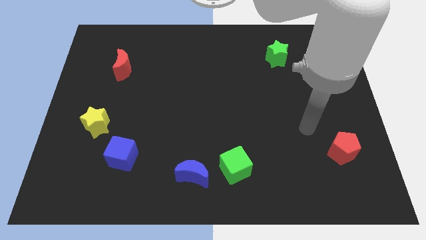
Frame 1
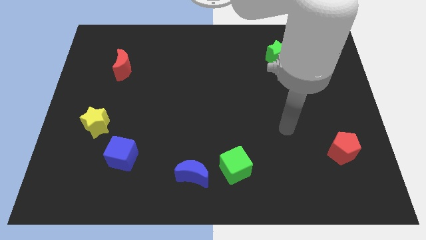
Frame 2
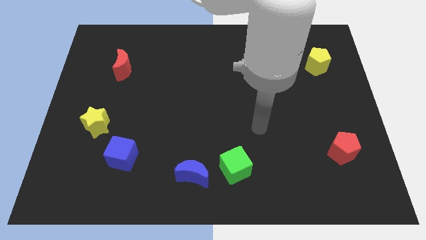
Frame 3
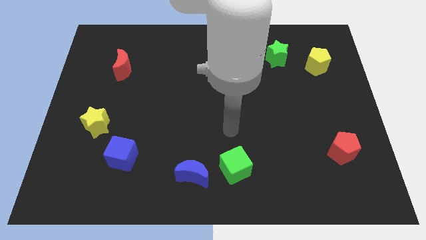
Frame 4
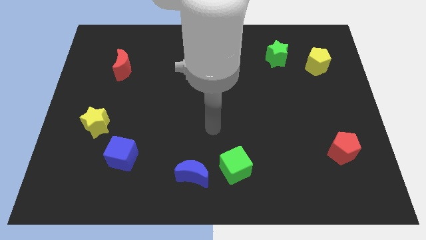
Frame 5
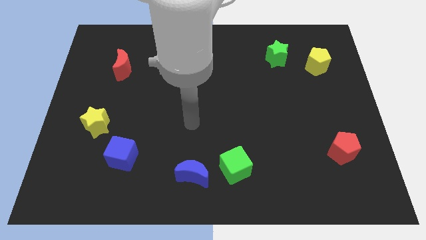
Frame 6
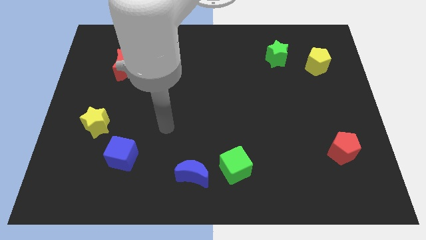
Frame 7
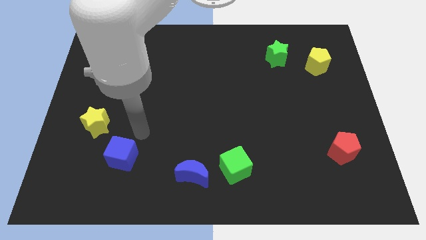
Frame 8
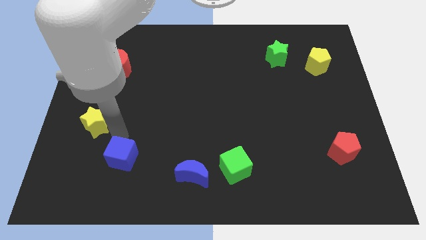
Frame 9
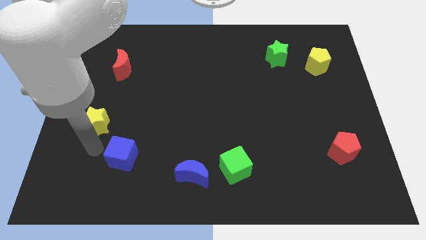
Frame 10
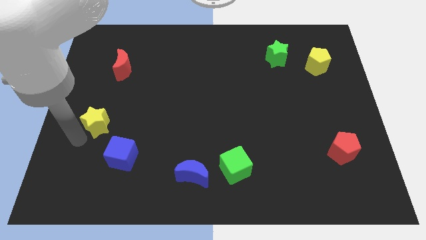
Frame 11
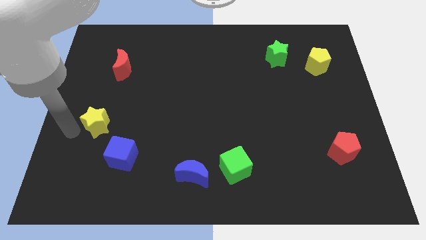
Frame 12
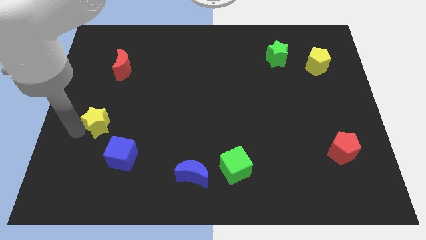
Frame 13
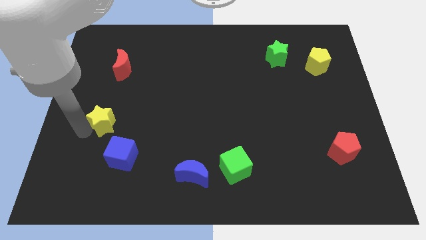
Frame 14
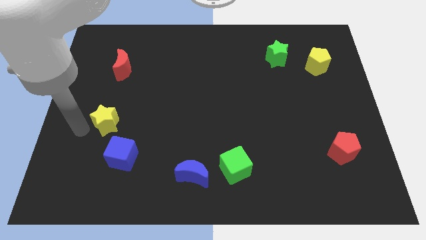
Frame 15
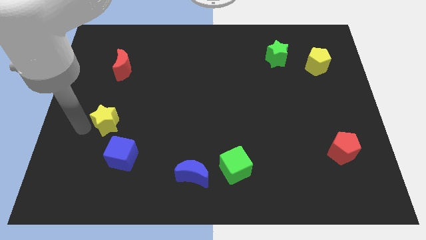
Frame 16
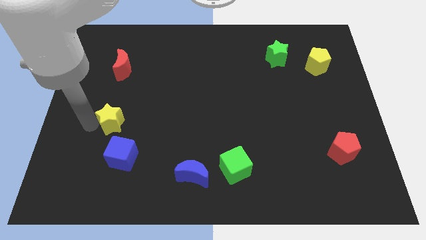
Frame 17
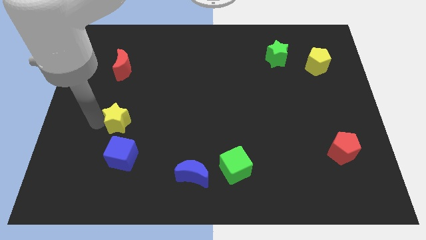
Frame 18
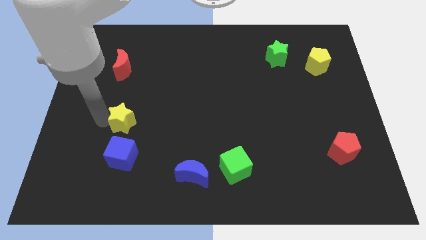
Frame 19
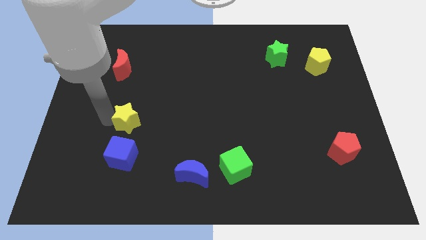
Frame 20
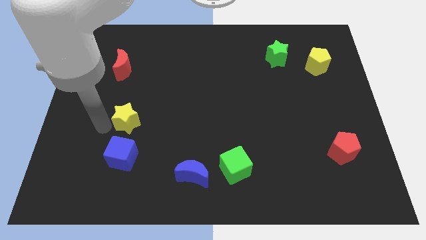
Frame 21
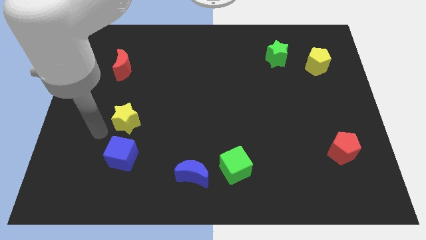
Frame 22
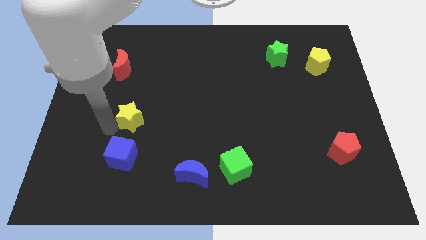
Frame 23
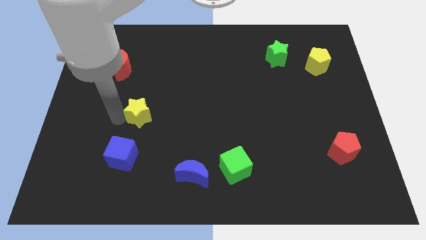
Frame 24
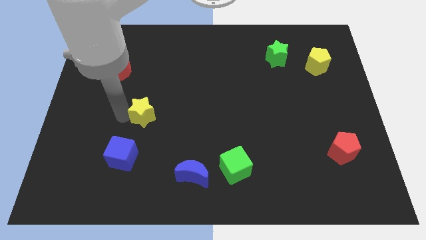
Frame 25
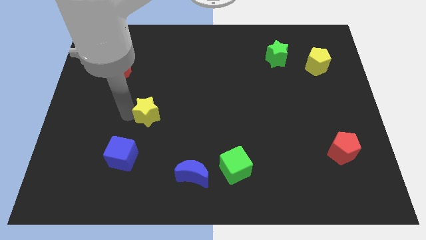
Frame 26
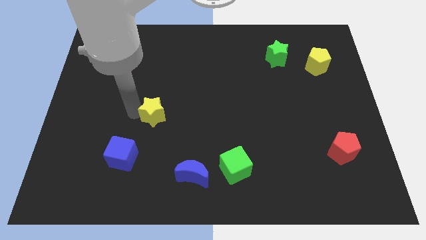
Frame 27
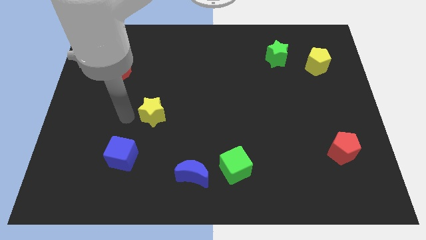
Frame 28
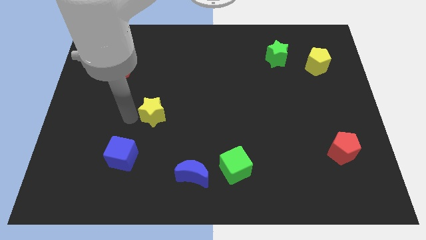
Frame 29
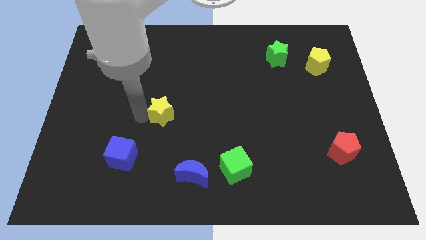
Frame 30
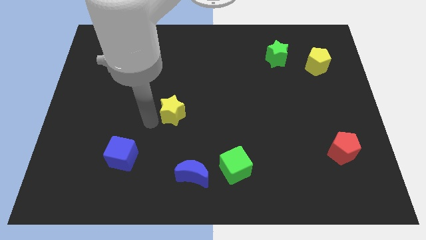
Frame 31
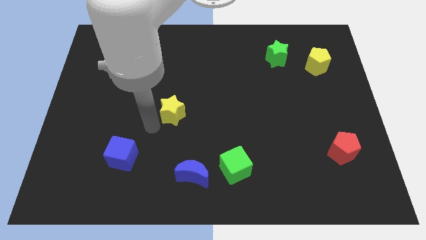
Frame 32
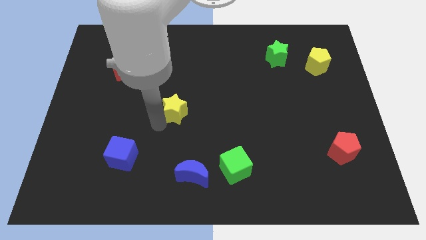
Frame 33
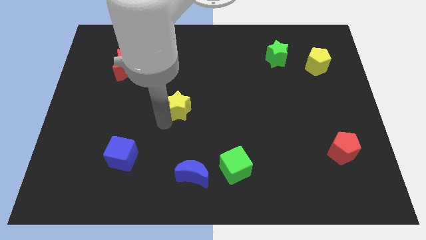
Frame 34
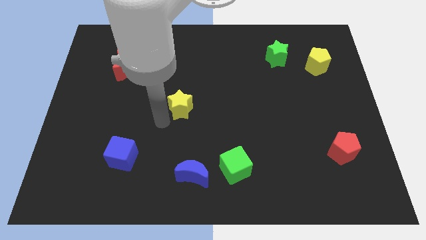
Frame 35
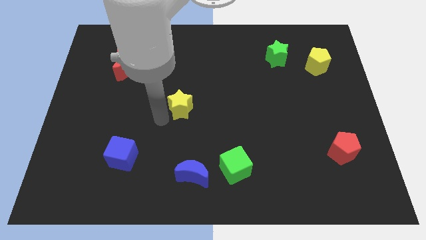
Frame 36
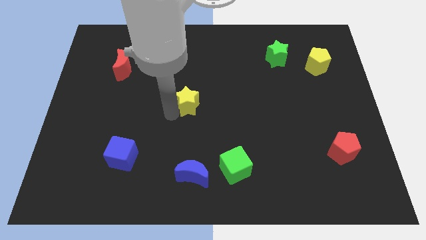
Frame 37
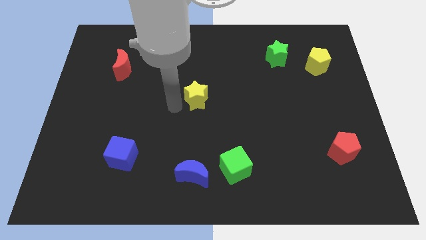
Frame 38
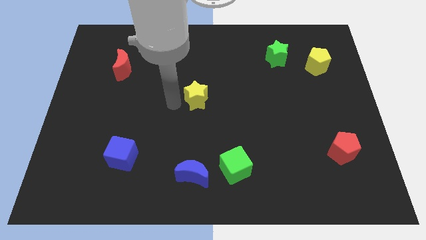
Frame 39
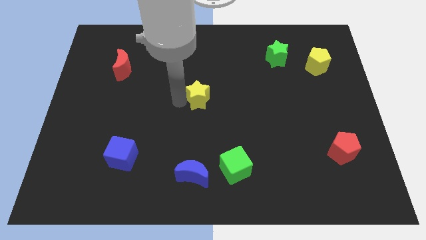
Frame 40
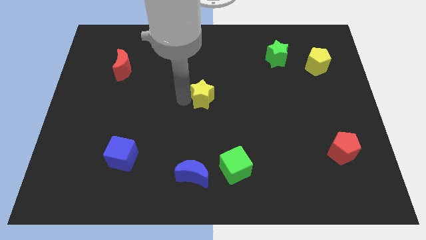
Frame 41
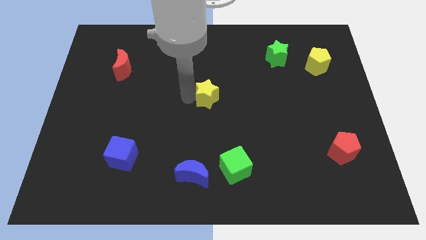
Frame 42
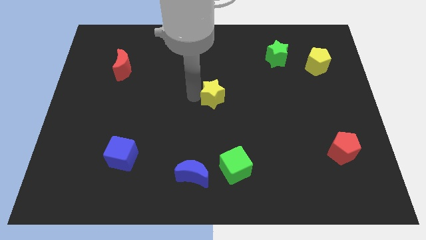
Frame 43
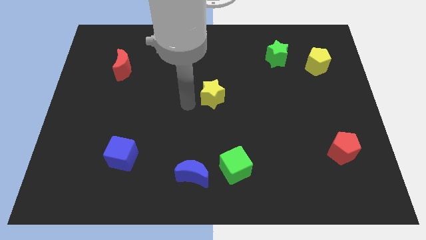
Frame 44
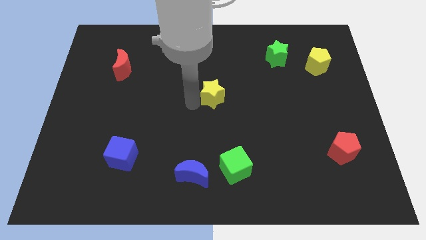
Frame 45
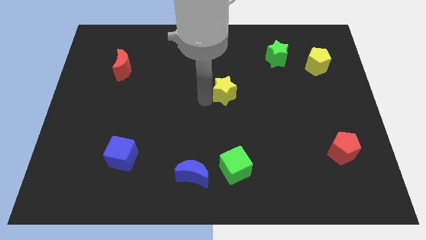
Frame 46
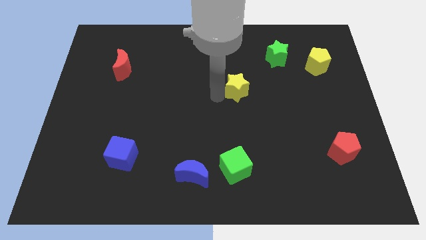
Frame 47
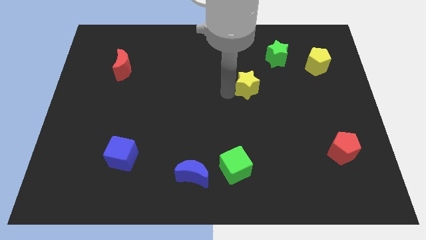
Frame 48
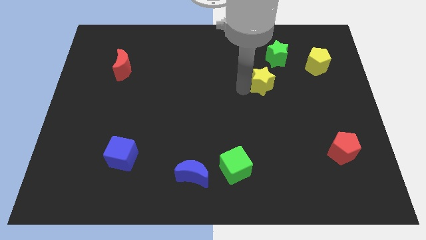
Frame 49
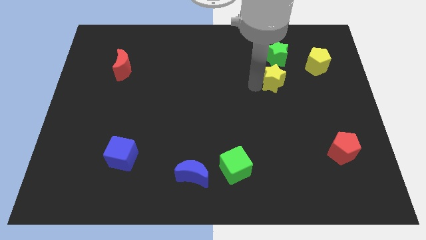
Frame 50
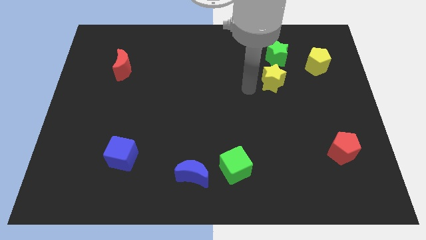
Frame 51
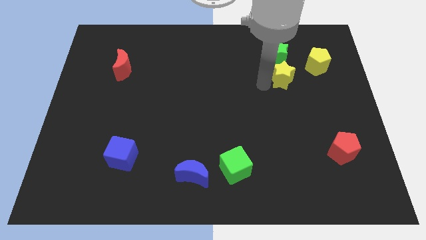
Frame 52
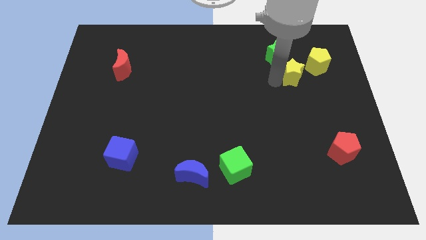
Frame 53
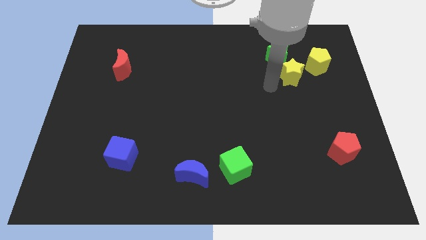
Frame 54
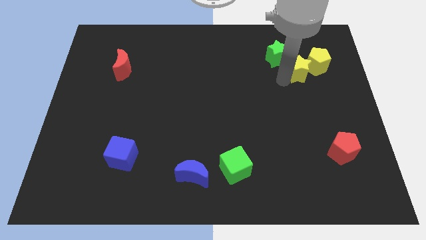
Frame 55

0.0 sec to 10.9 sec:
put the yellow star towards the yellow pentagon
